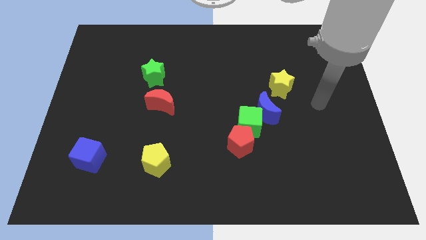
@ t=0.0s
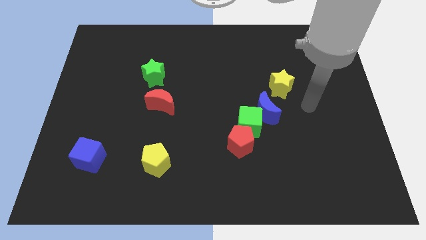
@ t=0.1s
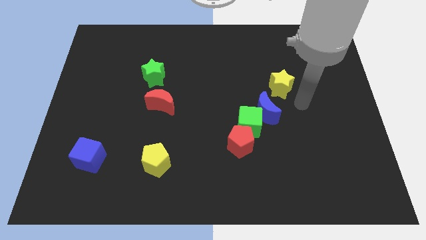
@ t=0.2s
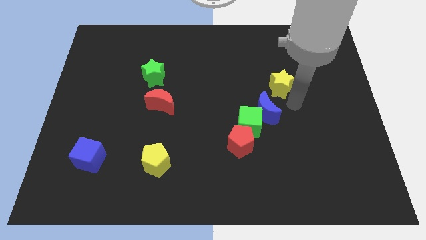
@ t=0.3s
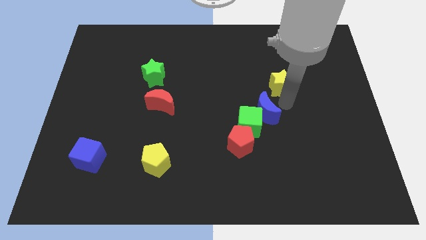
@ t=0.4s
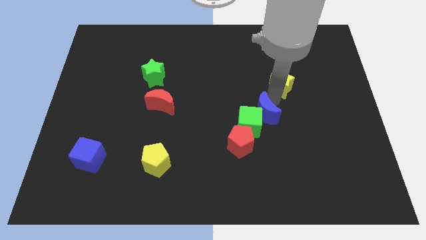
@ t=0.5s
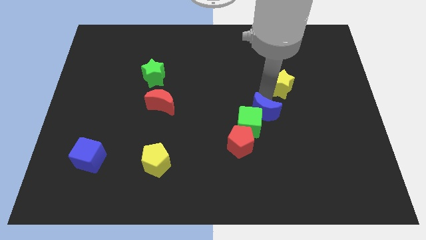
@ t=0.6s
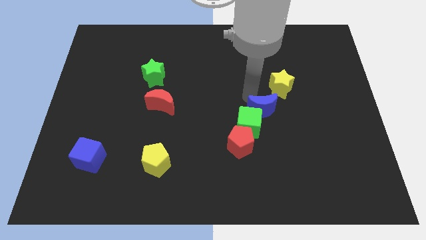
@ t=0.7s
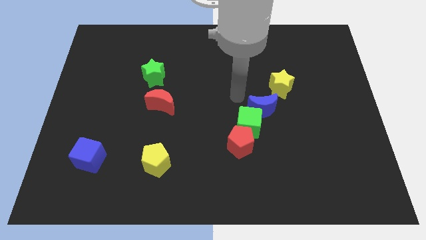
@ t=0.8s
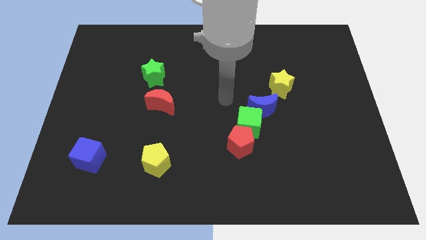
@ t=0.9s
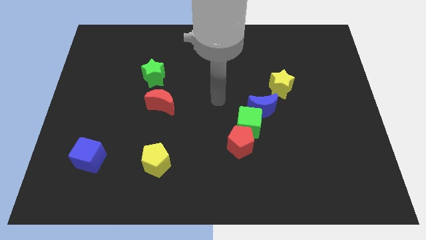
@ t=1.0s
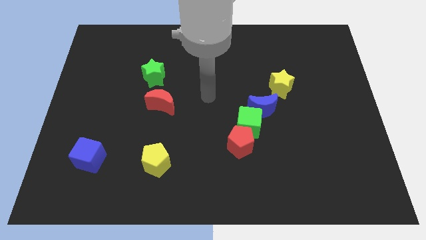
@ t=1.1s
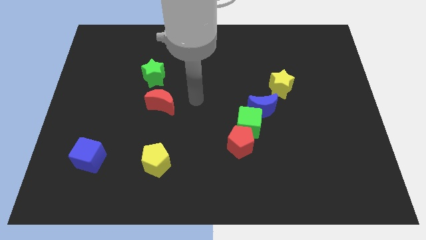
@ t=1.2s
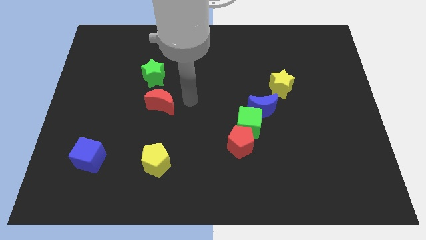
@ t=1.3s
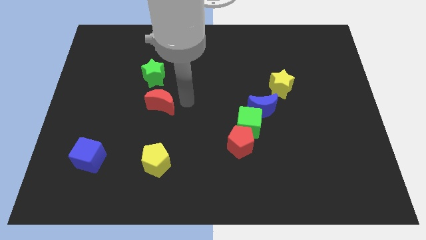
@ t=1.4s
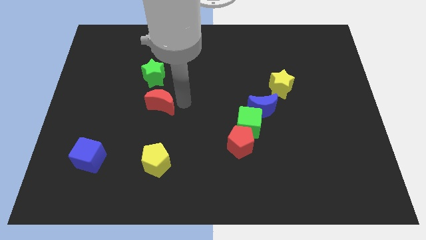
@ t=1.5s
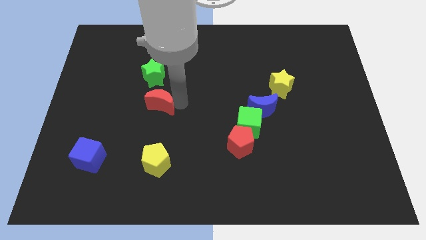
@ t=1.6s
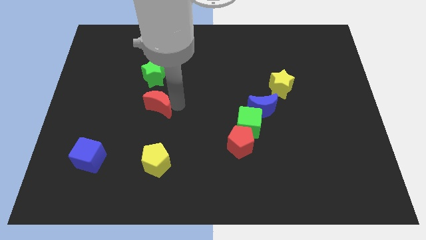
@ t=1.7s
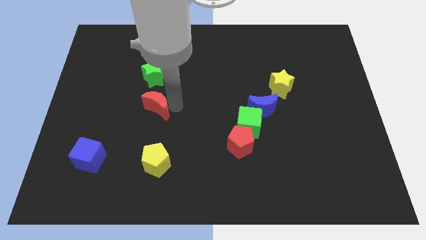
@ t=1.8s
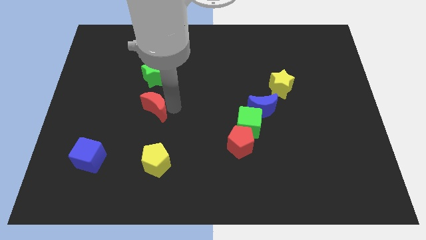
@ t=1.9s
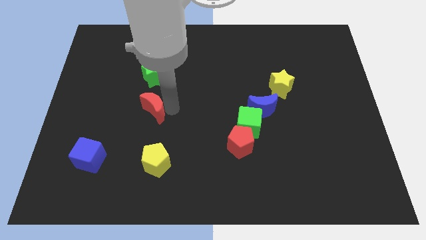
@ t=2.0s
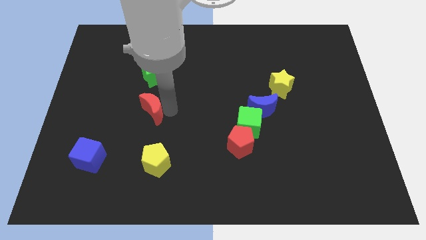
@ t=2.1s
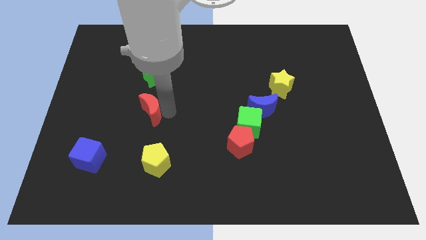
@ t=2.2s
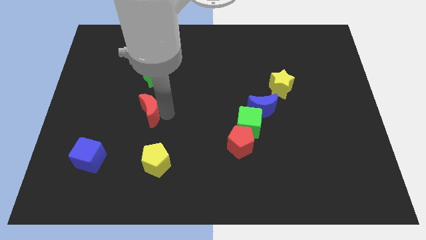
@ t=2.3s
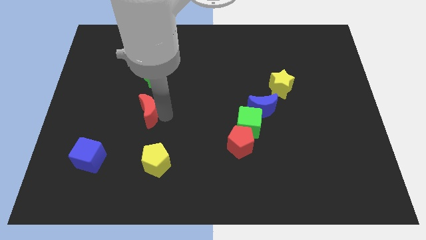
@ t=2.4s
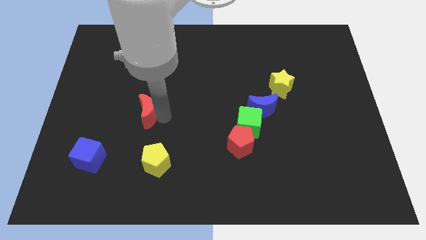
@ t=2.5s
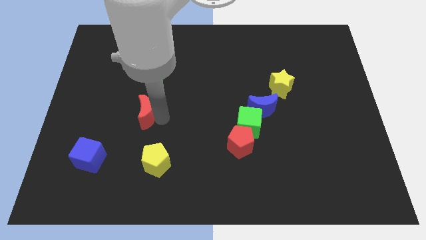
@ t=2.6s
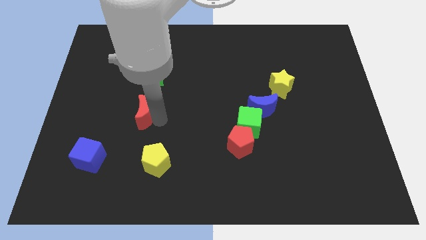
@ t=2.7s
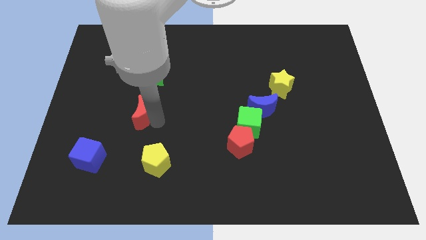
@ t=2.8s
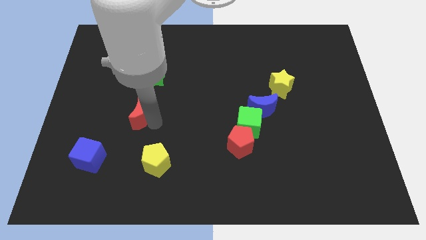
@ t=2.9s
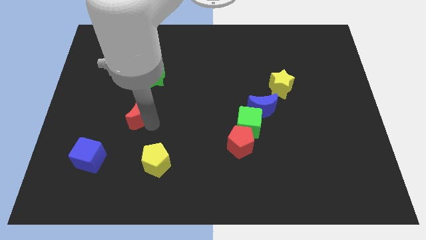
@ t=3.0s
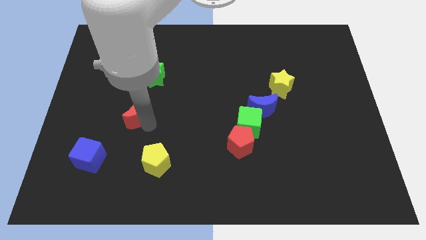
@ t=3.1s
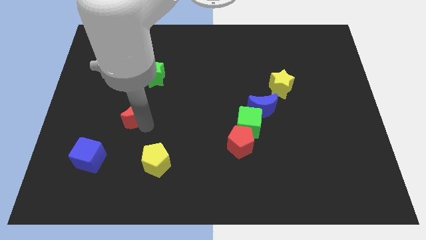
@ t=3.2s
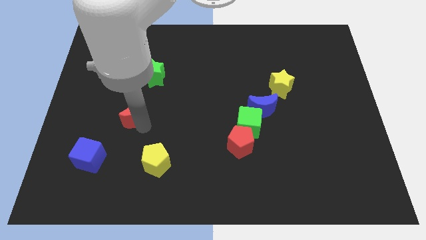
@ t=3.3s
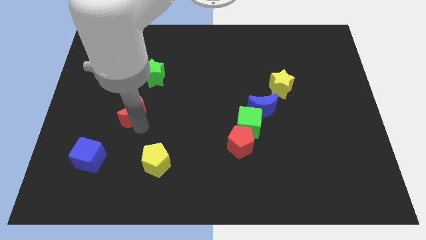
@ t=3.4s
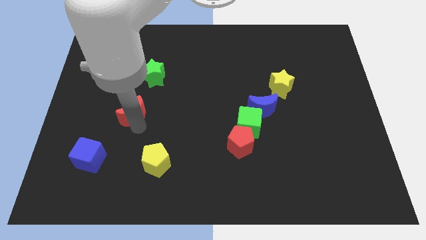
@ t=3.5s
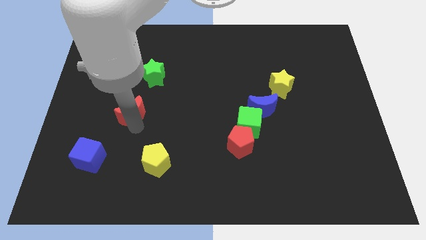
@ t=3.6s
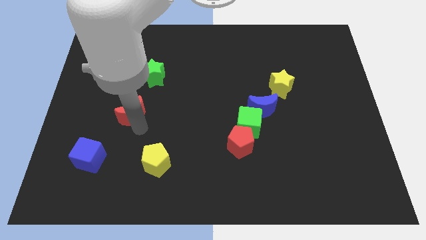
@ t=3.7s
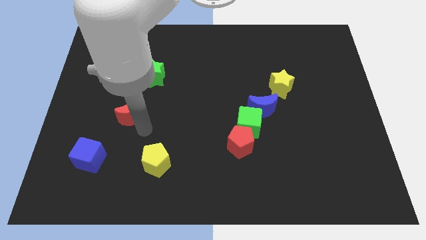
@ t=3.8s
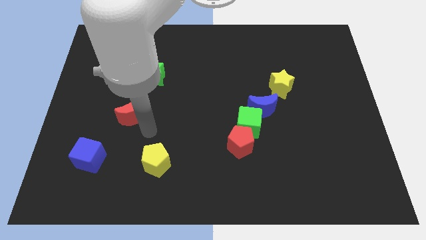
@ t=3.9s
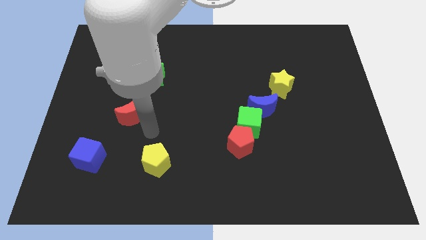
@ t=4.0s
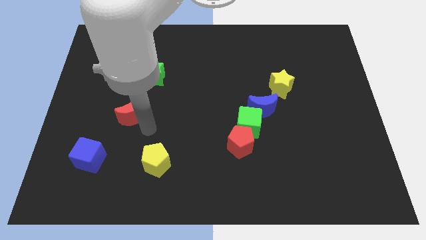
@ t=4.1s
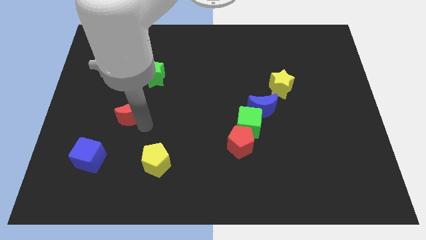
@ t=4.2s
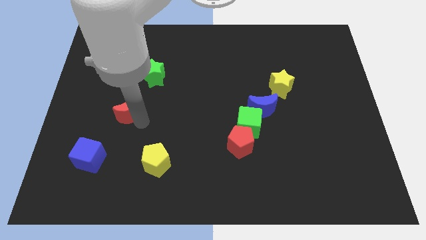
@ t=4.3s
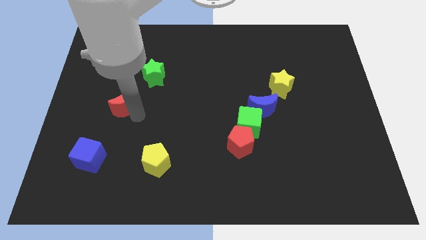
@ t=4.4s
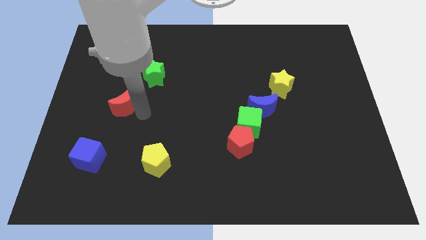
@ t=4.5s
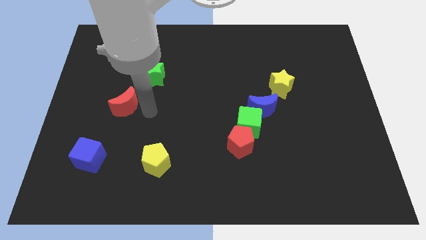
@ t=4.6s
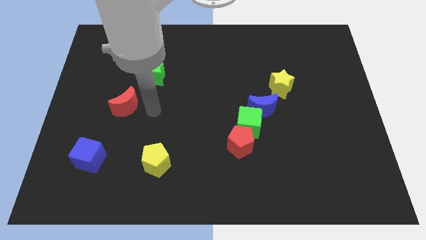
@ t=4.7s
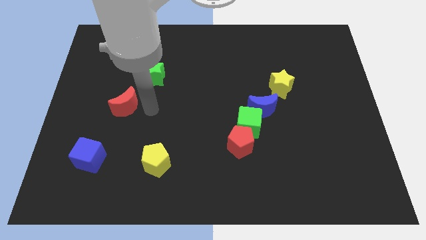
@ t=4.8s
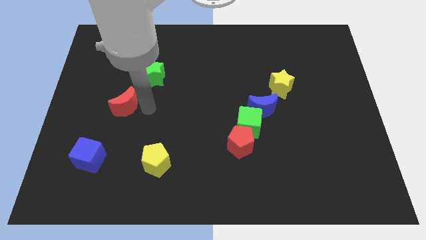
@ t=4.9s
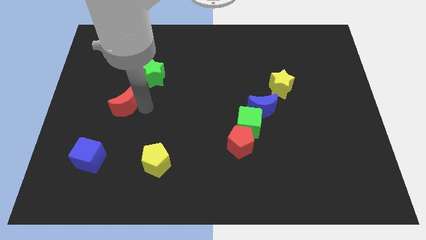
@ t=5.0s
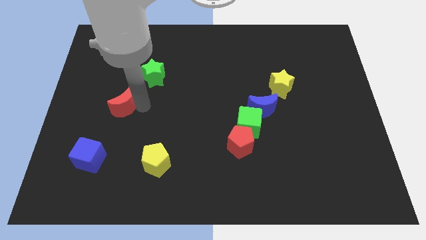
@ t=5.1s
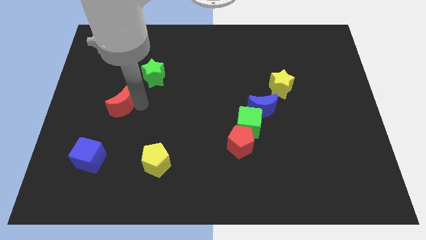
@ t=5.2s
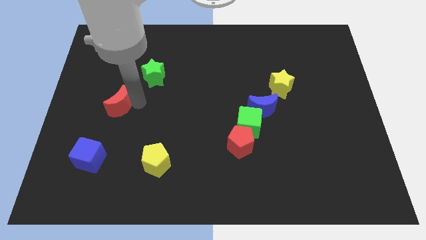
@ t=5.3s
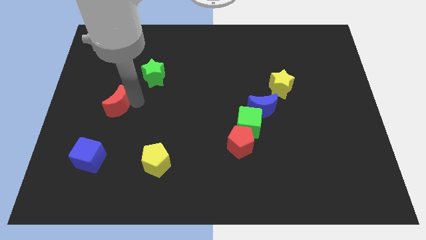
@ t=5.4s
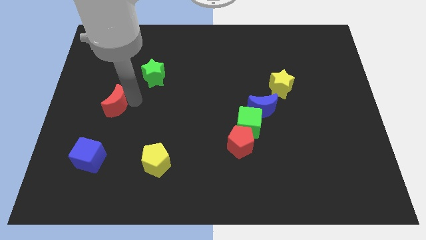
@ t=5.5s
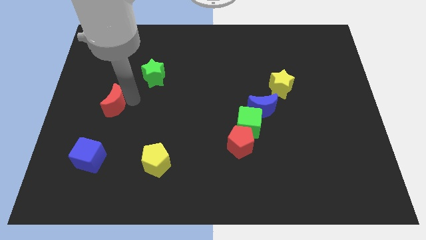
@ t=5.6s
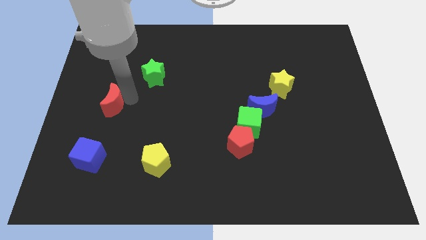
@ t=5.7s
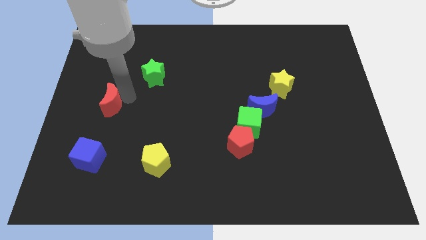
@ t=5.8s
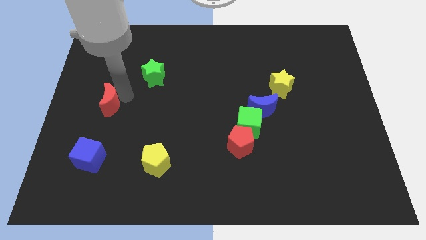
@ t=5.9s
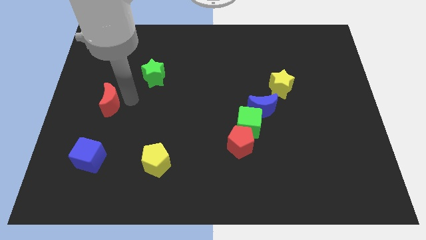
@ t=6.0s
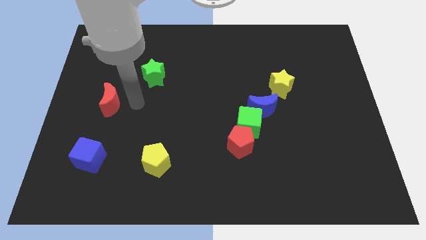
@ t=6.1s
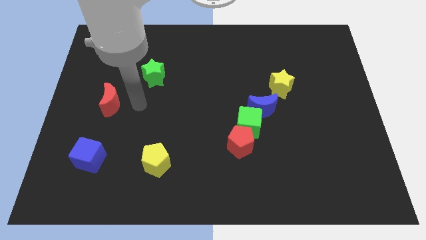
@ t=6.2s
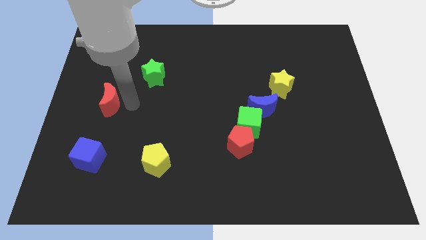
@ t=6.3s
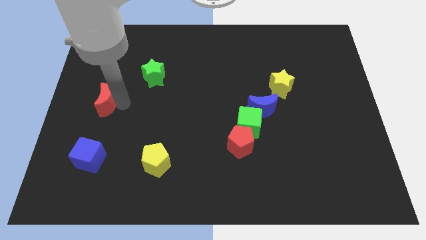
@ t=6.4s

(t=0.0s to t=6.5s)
slide the red moon to the left side
